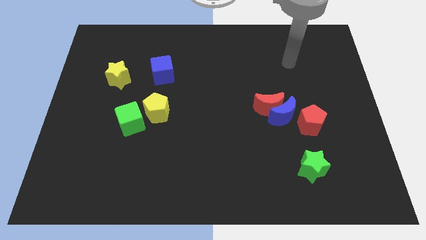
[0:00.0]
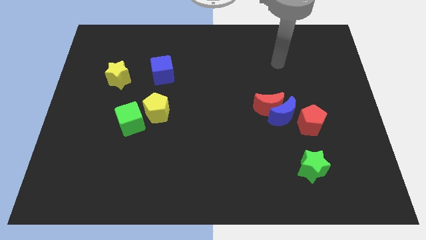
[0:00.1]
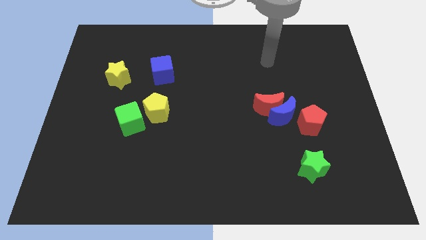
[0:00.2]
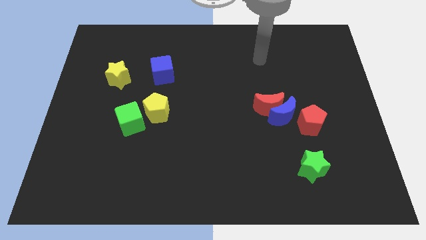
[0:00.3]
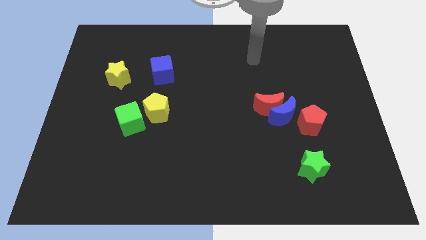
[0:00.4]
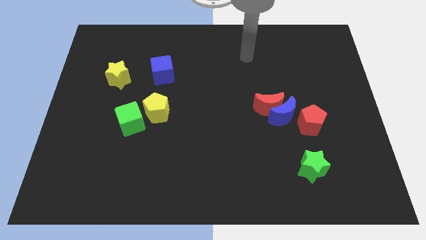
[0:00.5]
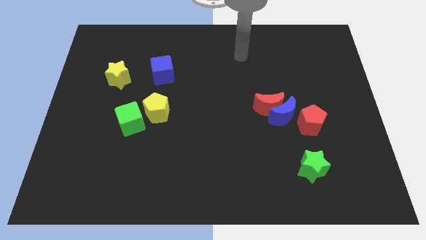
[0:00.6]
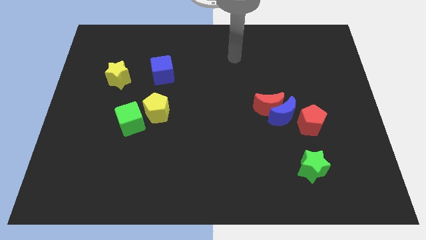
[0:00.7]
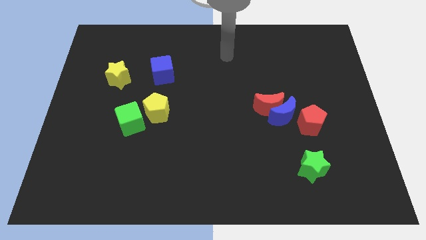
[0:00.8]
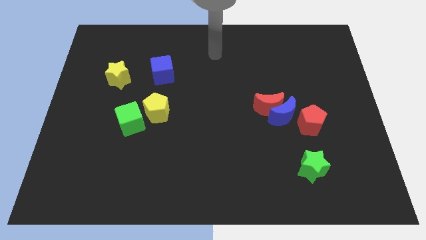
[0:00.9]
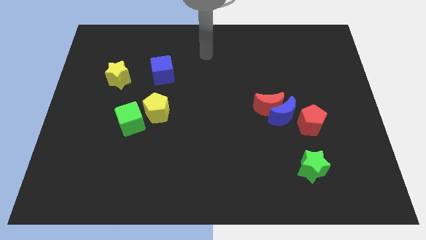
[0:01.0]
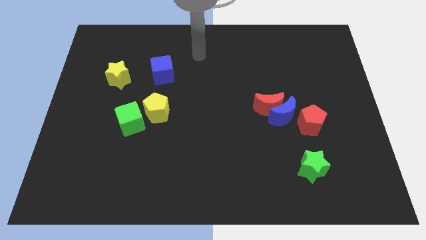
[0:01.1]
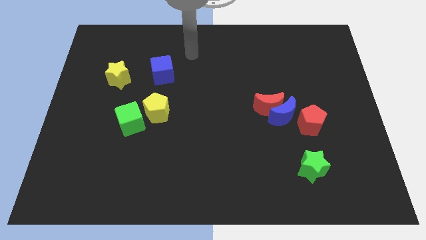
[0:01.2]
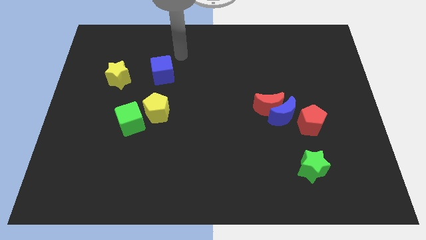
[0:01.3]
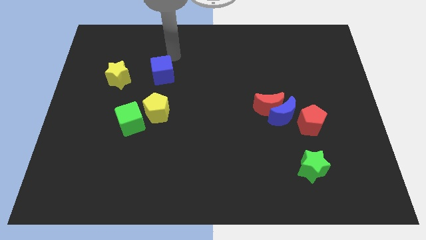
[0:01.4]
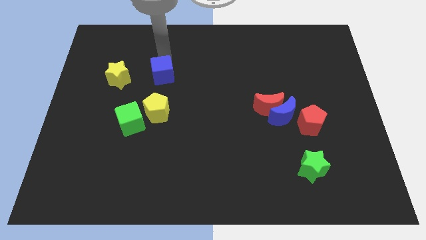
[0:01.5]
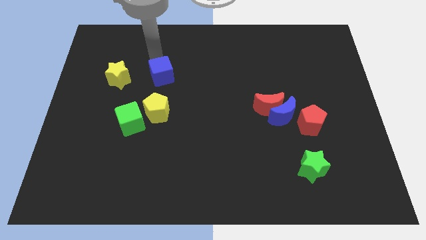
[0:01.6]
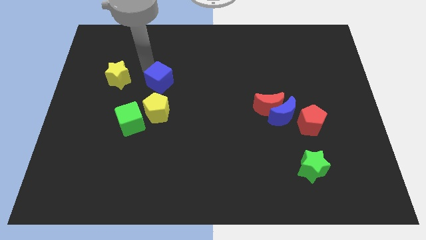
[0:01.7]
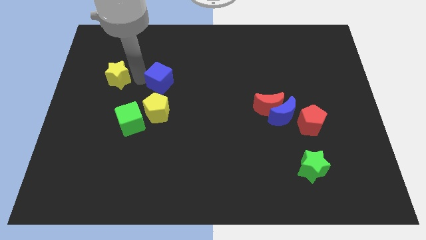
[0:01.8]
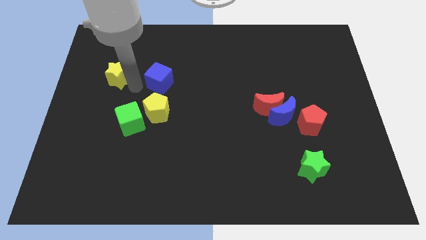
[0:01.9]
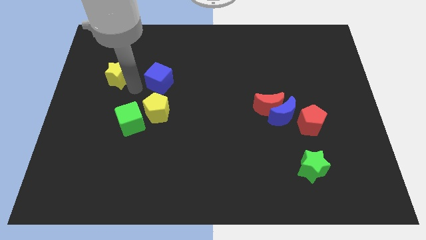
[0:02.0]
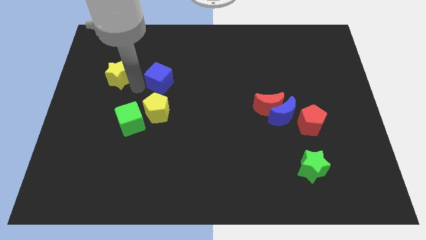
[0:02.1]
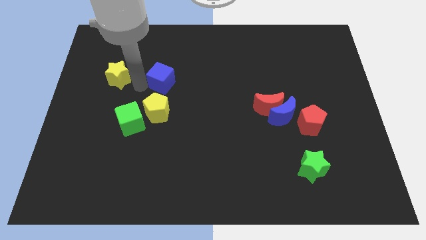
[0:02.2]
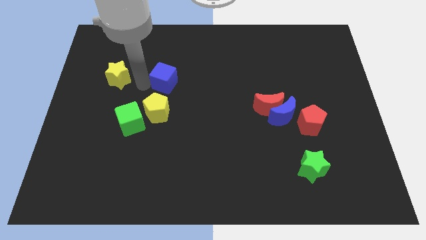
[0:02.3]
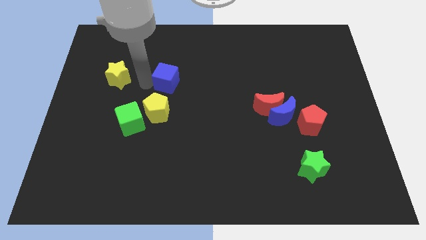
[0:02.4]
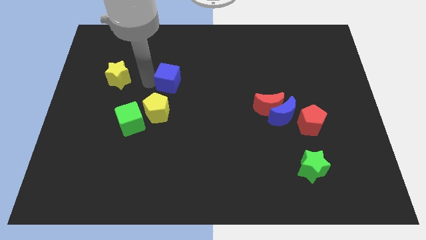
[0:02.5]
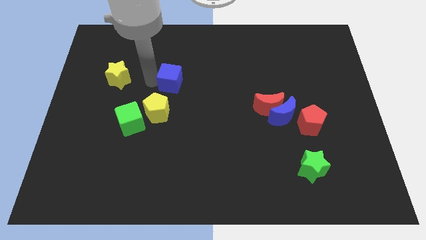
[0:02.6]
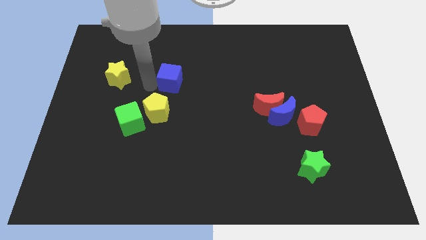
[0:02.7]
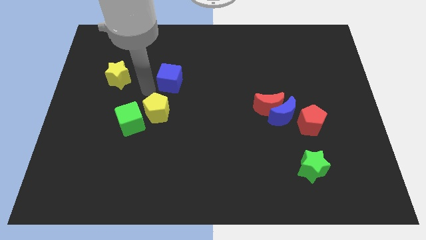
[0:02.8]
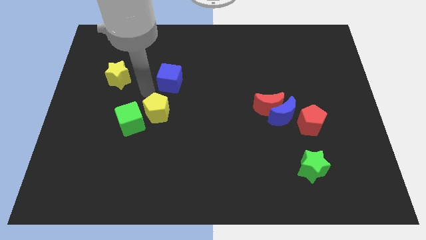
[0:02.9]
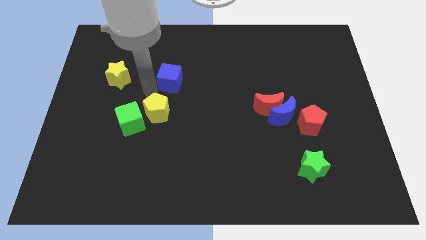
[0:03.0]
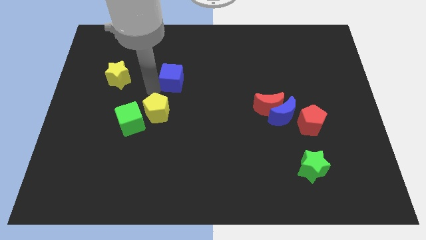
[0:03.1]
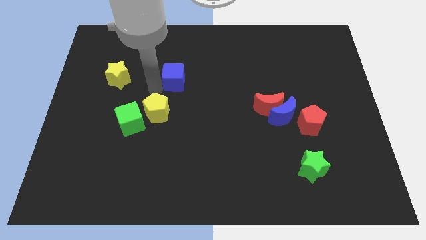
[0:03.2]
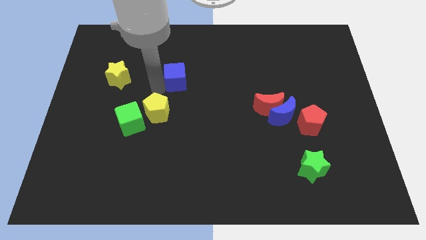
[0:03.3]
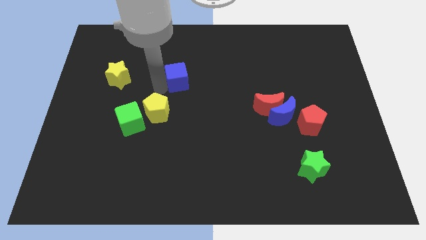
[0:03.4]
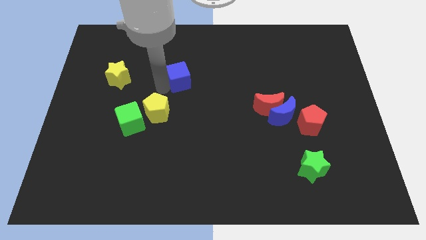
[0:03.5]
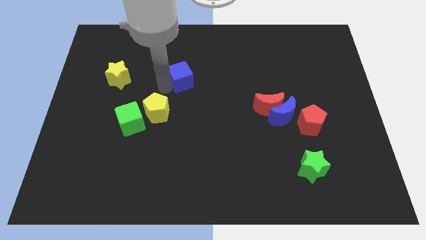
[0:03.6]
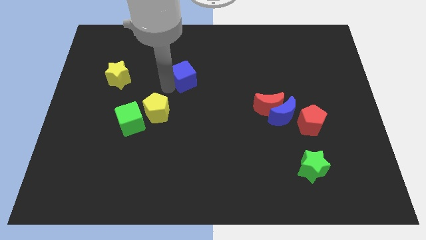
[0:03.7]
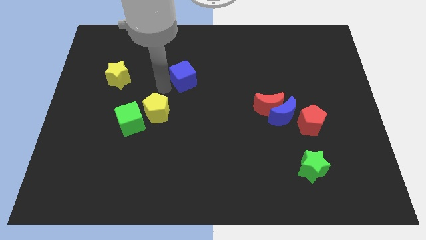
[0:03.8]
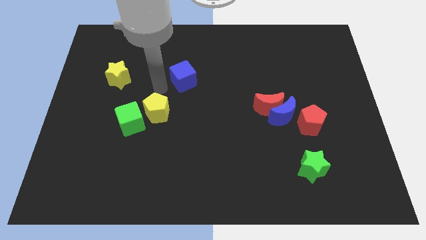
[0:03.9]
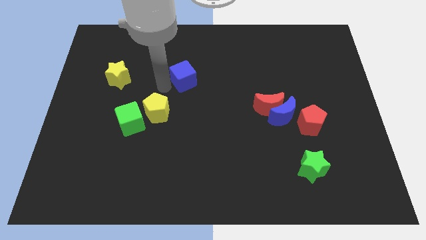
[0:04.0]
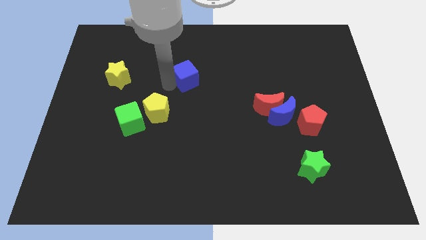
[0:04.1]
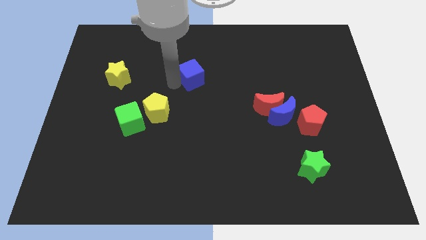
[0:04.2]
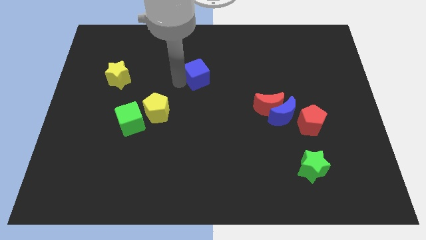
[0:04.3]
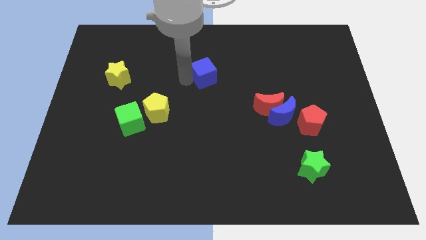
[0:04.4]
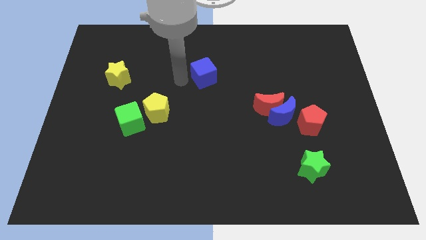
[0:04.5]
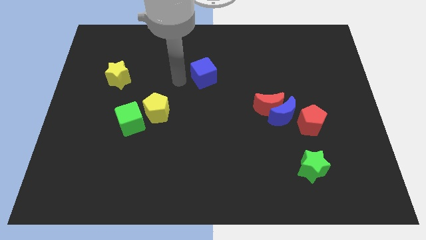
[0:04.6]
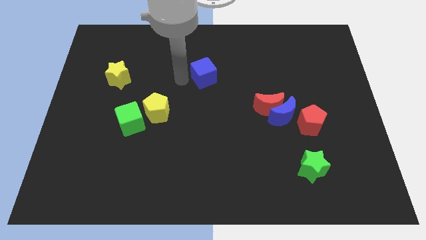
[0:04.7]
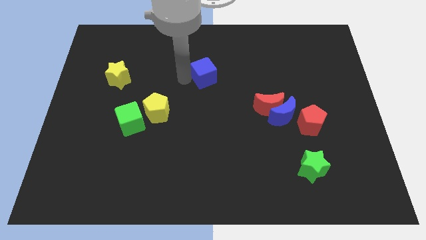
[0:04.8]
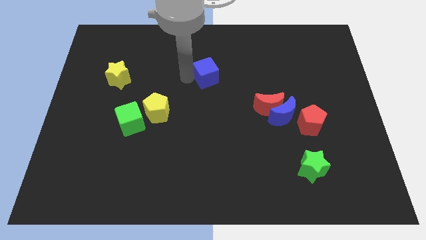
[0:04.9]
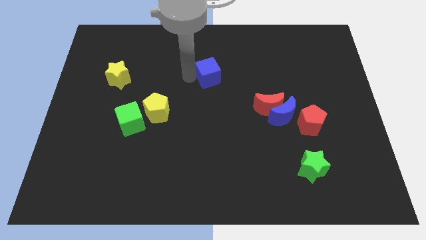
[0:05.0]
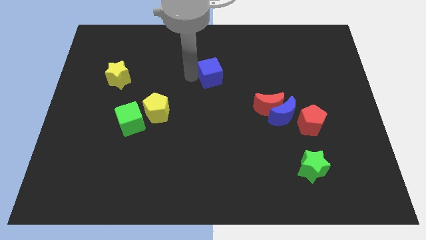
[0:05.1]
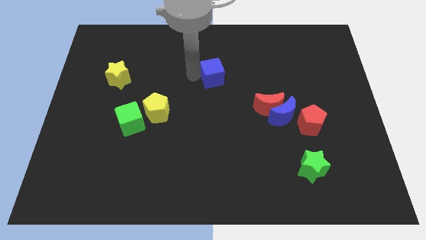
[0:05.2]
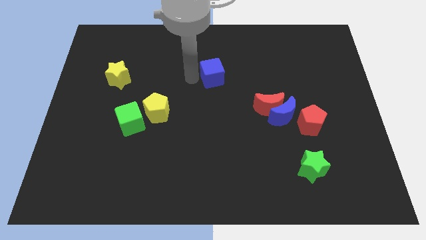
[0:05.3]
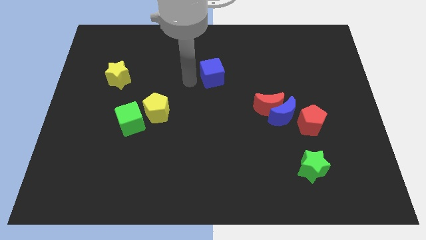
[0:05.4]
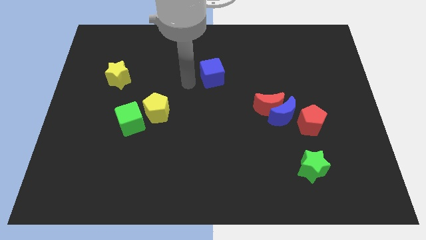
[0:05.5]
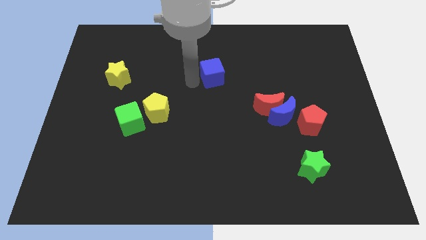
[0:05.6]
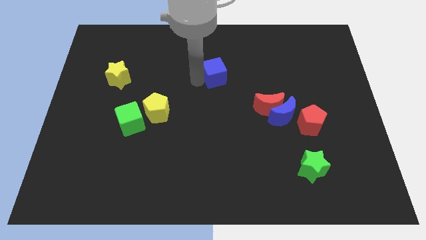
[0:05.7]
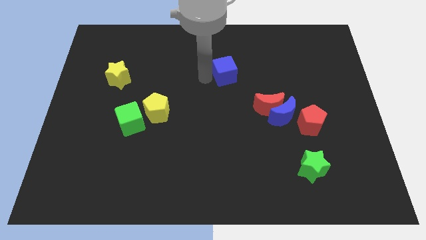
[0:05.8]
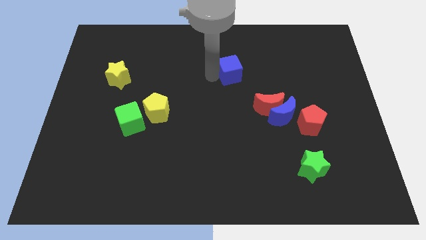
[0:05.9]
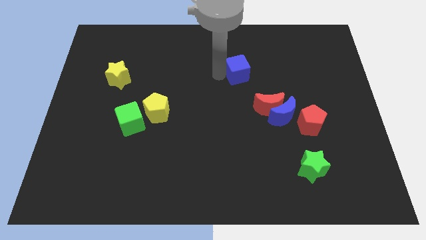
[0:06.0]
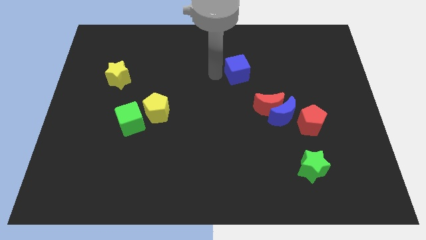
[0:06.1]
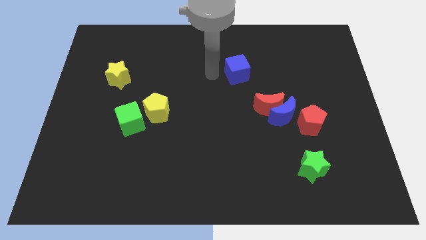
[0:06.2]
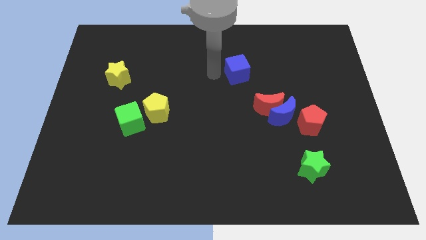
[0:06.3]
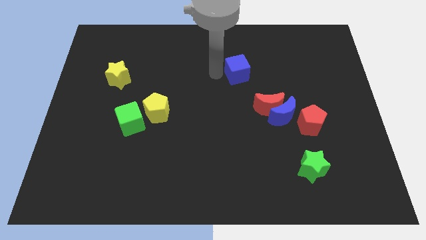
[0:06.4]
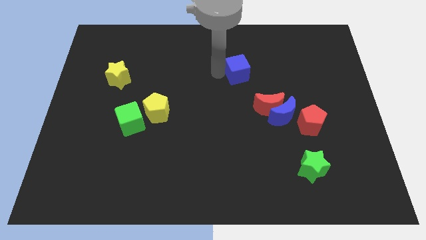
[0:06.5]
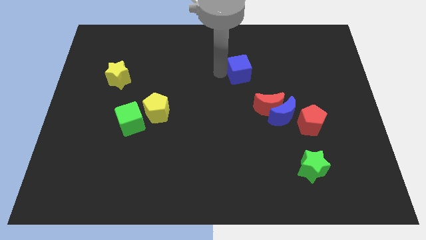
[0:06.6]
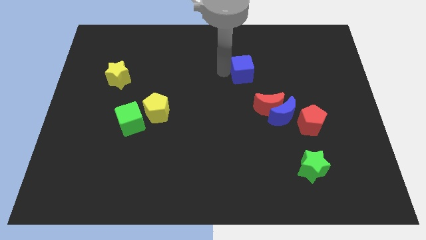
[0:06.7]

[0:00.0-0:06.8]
slide the blue cube right

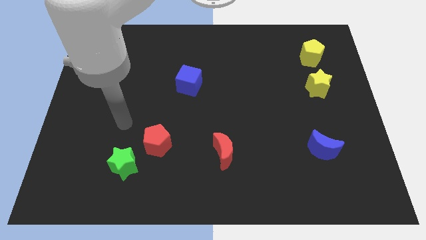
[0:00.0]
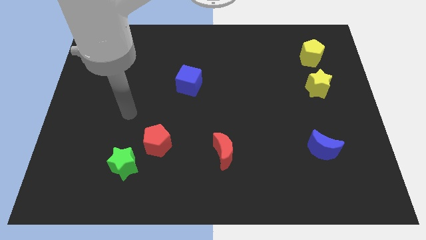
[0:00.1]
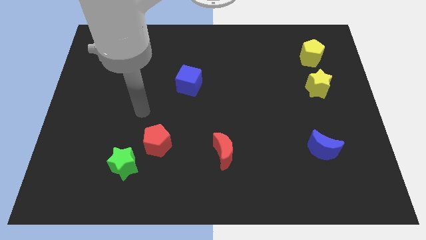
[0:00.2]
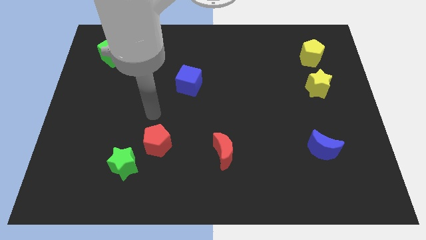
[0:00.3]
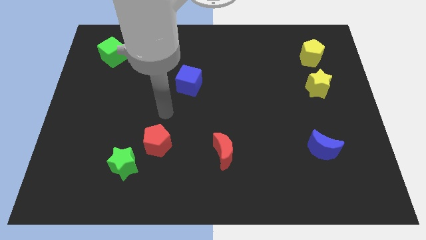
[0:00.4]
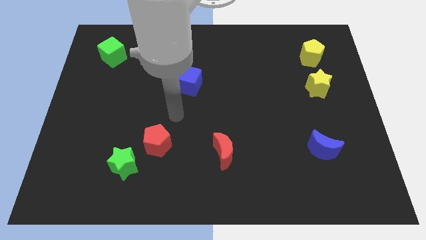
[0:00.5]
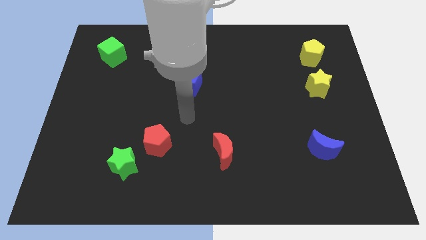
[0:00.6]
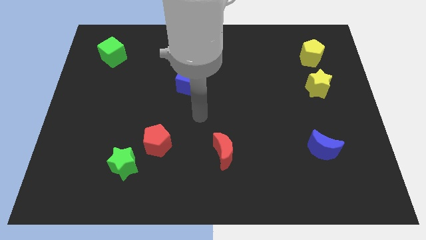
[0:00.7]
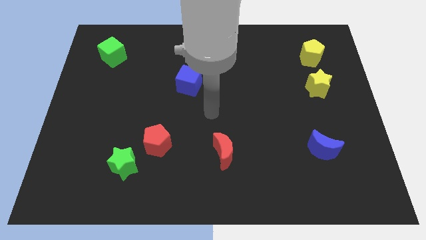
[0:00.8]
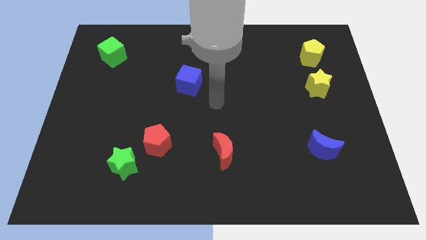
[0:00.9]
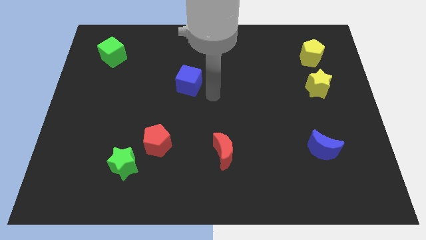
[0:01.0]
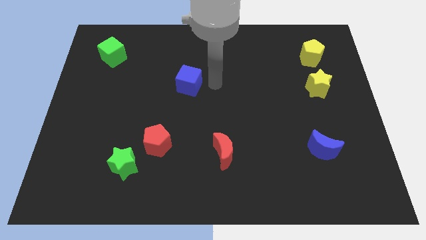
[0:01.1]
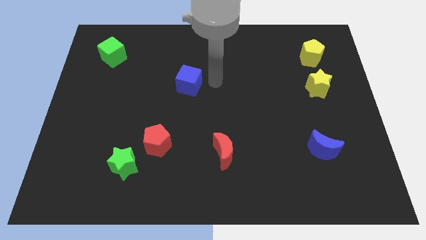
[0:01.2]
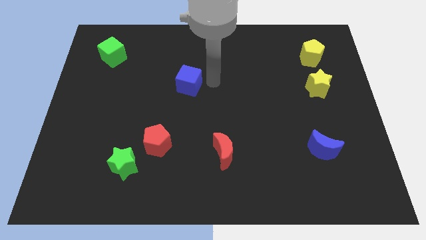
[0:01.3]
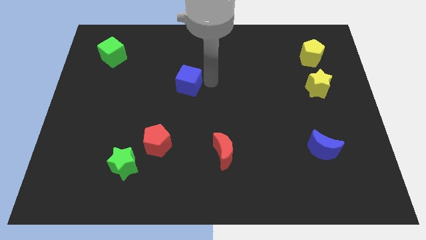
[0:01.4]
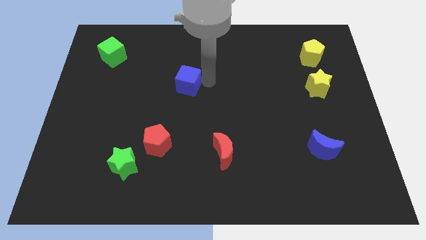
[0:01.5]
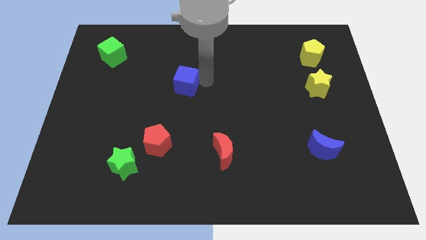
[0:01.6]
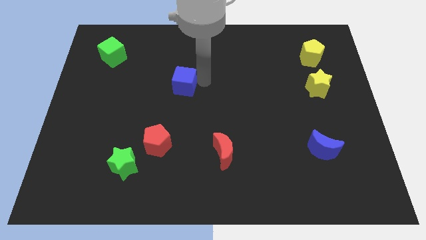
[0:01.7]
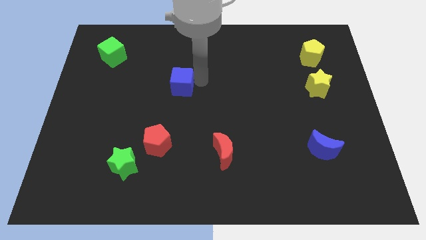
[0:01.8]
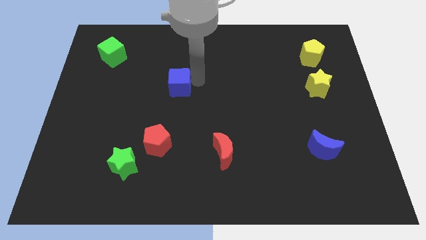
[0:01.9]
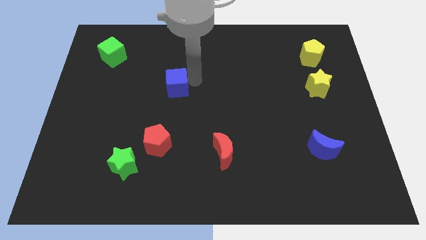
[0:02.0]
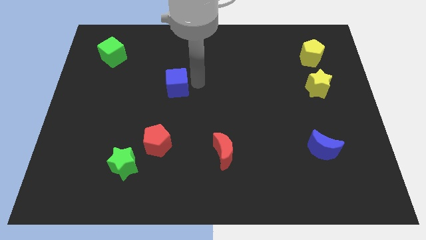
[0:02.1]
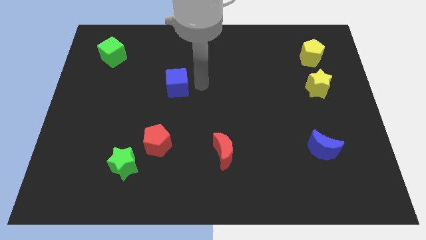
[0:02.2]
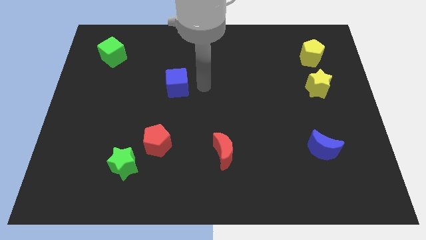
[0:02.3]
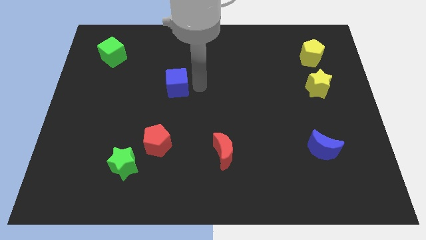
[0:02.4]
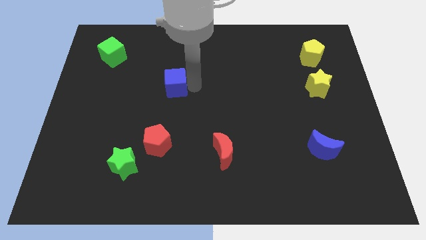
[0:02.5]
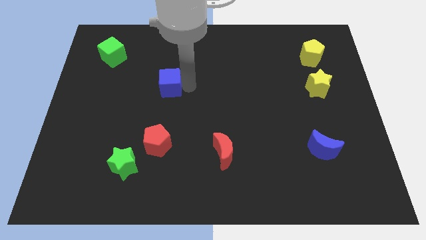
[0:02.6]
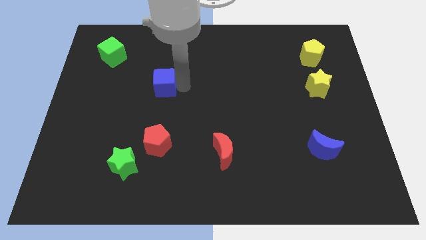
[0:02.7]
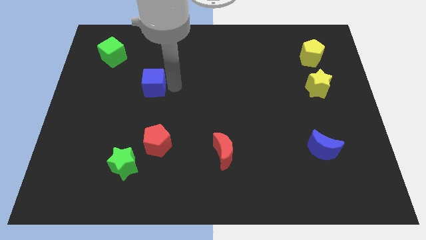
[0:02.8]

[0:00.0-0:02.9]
slightly slide the blue cube to the left
